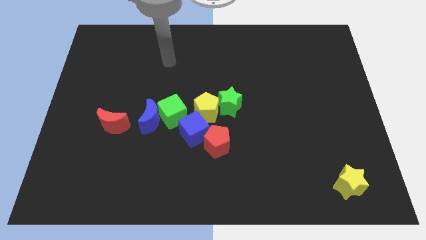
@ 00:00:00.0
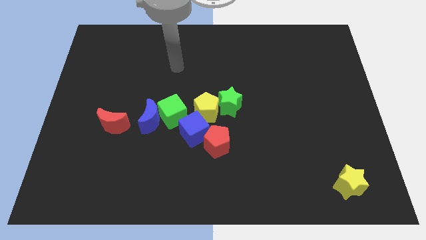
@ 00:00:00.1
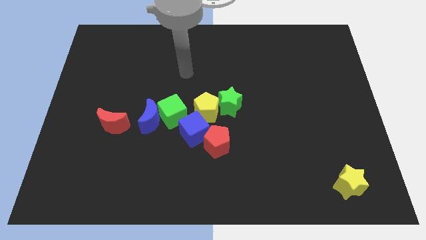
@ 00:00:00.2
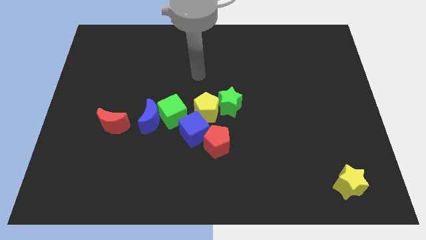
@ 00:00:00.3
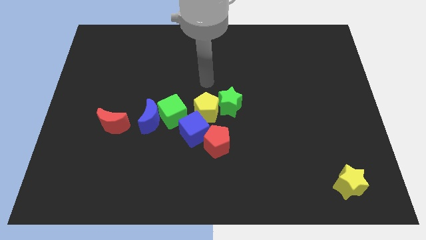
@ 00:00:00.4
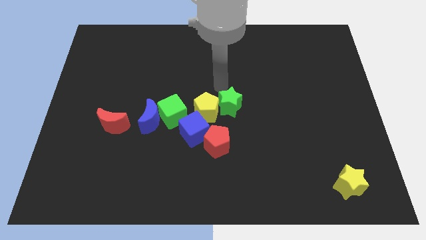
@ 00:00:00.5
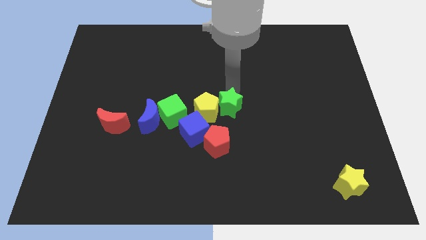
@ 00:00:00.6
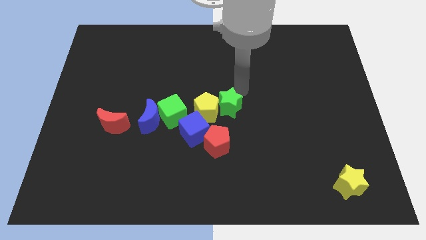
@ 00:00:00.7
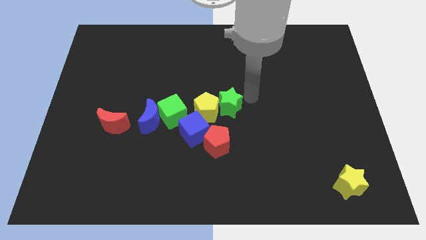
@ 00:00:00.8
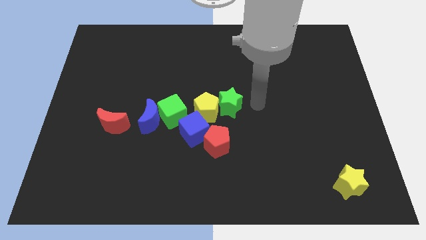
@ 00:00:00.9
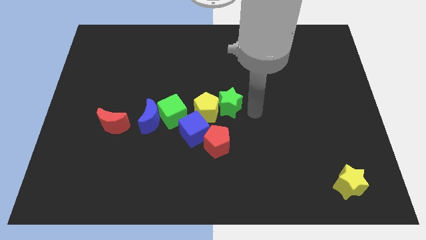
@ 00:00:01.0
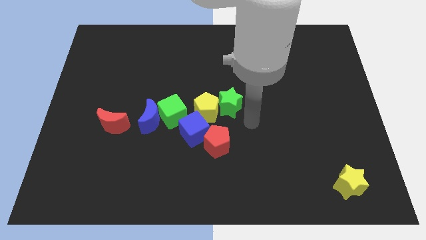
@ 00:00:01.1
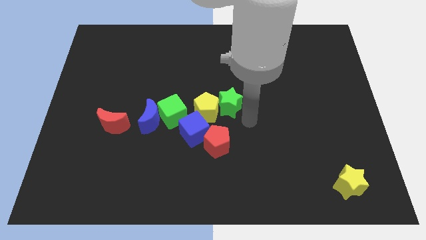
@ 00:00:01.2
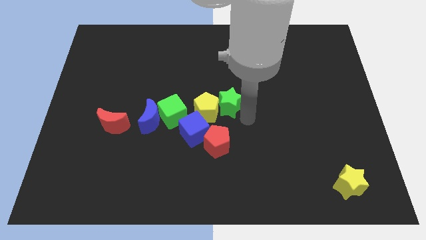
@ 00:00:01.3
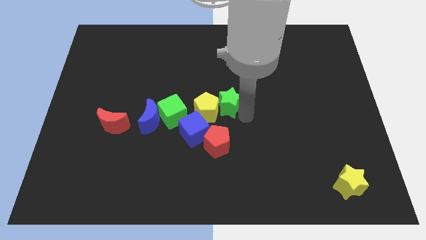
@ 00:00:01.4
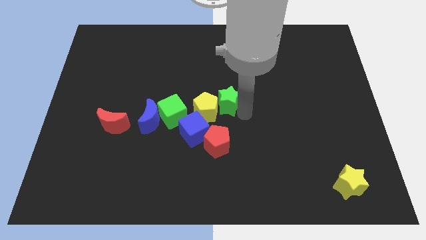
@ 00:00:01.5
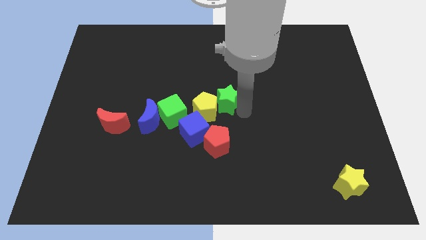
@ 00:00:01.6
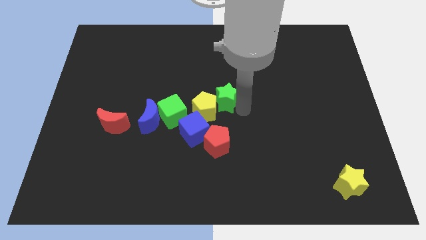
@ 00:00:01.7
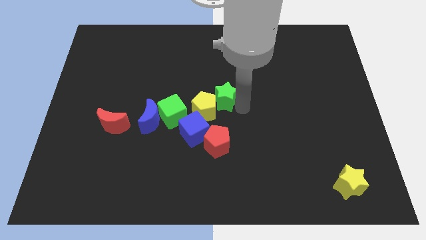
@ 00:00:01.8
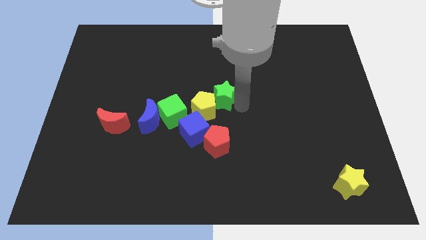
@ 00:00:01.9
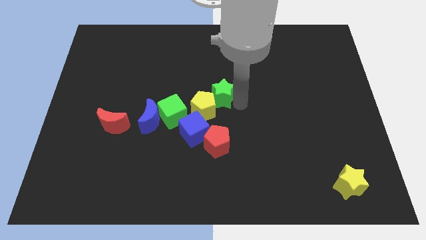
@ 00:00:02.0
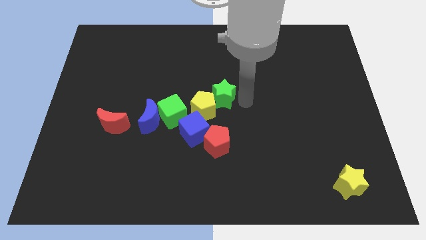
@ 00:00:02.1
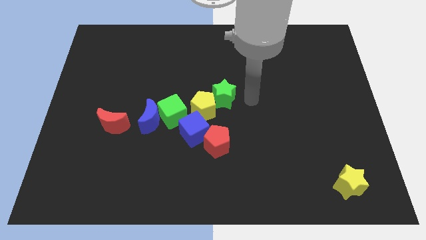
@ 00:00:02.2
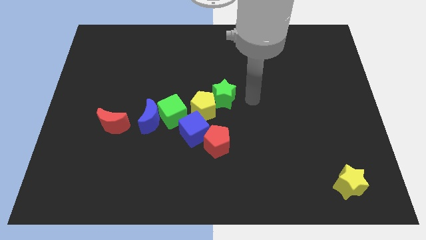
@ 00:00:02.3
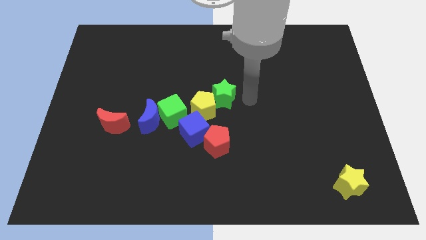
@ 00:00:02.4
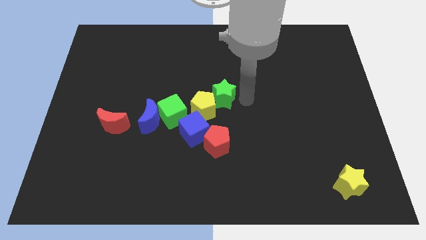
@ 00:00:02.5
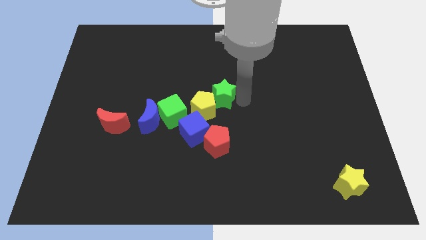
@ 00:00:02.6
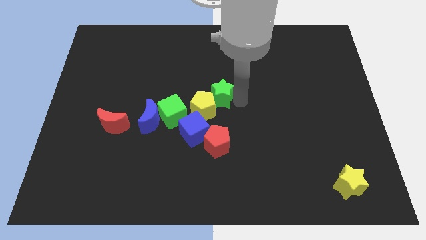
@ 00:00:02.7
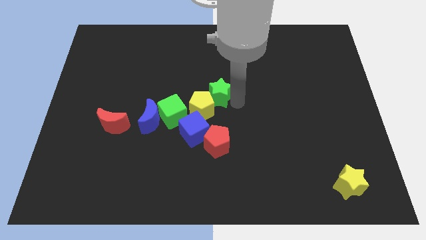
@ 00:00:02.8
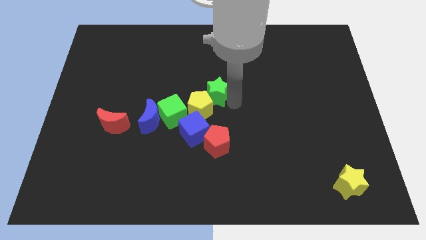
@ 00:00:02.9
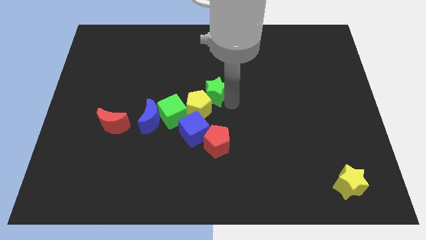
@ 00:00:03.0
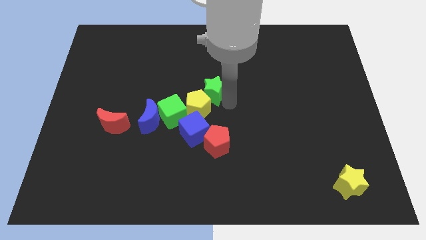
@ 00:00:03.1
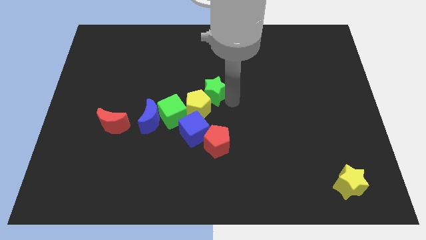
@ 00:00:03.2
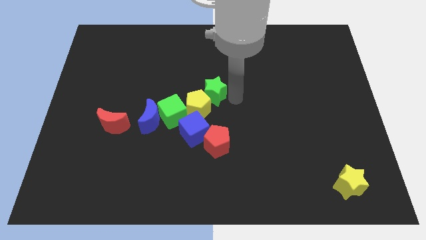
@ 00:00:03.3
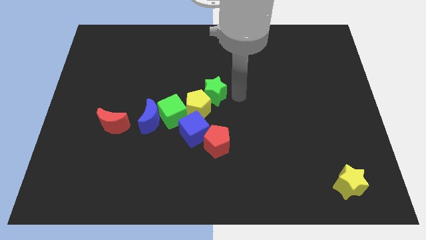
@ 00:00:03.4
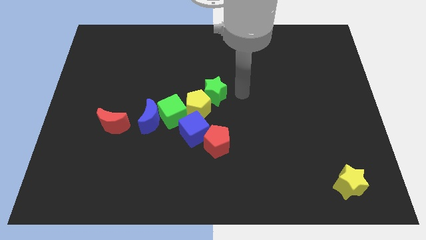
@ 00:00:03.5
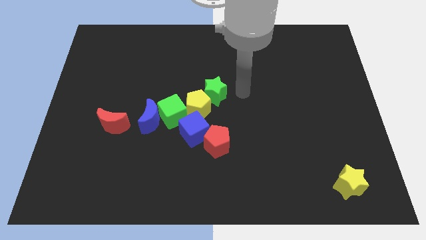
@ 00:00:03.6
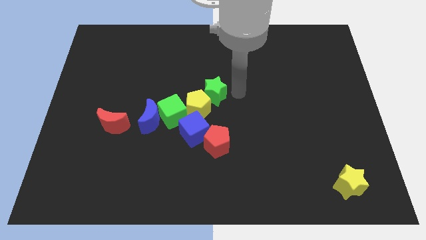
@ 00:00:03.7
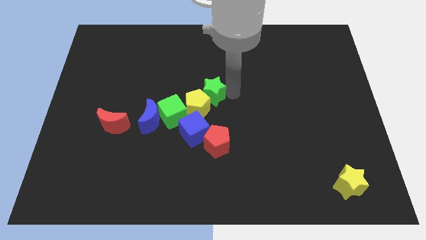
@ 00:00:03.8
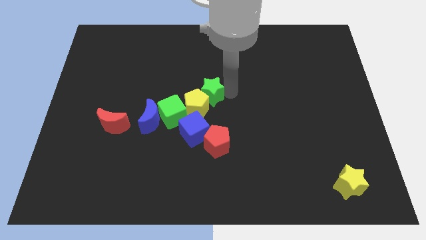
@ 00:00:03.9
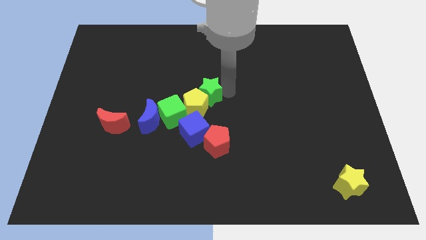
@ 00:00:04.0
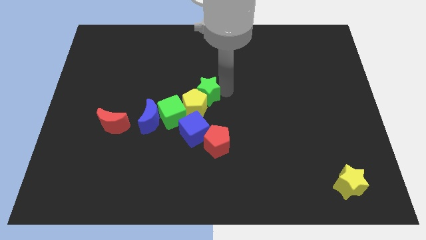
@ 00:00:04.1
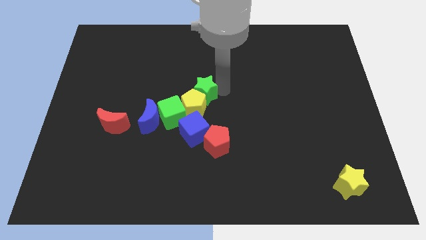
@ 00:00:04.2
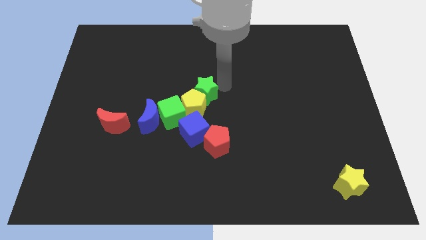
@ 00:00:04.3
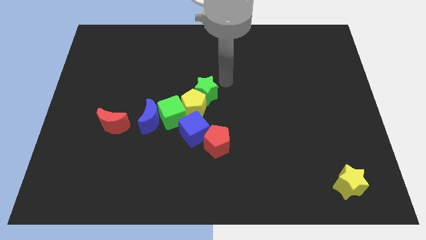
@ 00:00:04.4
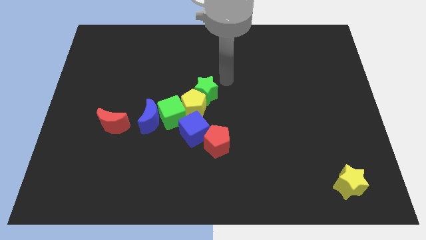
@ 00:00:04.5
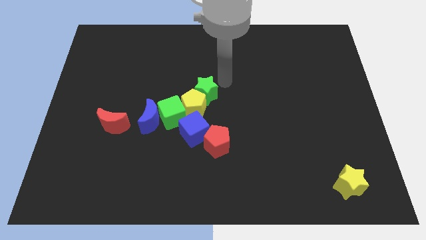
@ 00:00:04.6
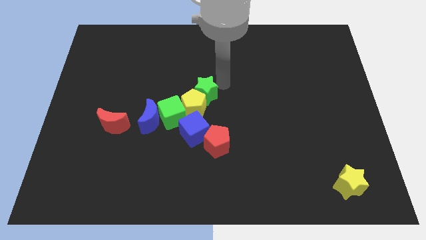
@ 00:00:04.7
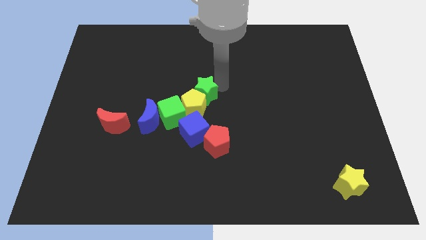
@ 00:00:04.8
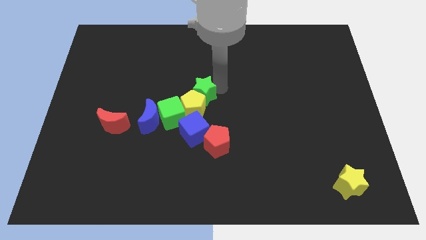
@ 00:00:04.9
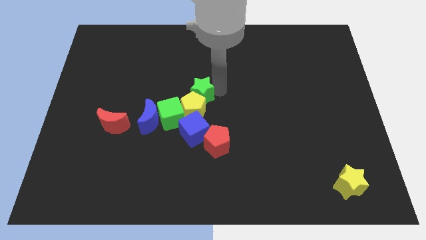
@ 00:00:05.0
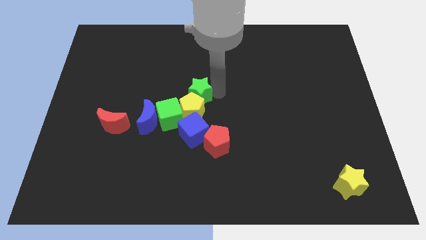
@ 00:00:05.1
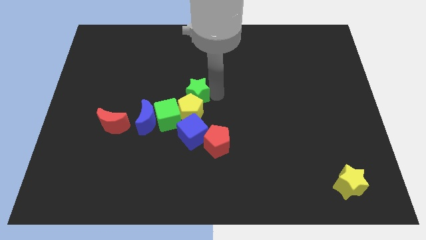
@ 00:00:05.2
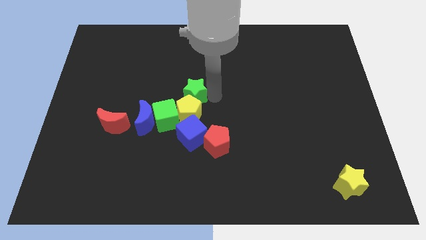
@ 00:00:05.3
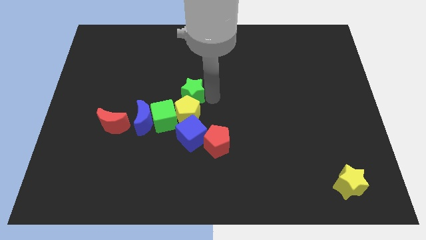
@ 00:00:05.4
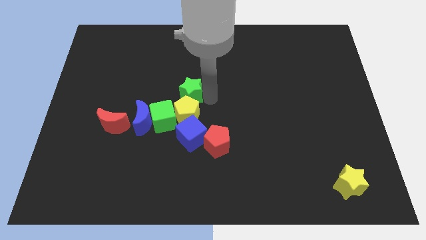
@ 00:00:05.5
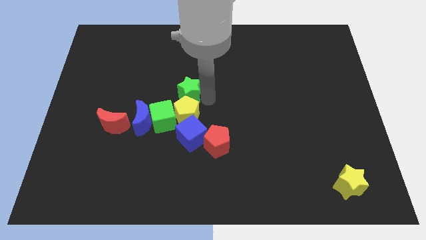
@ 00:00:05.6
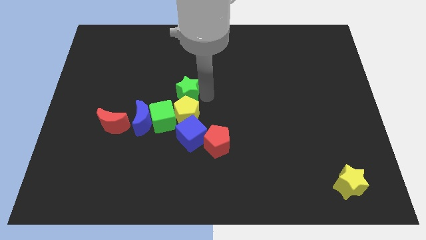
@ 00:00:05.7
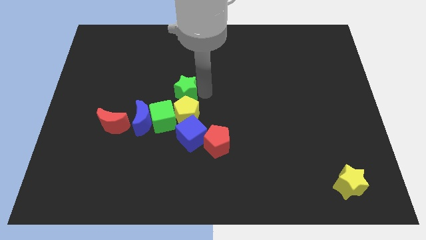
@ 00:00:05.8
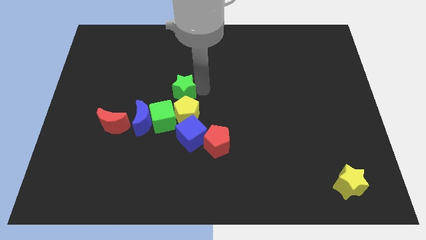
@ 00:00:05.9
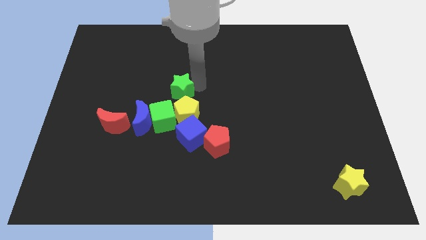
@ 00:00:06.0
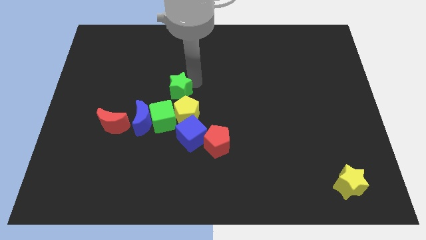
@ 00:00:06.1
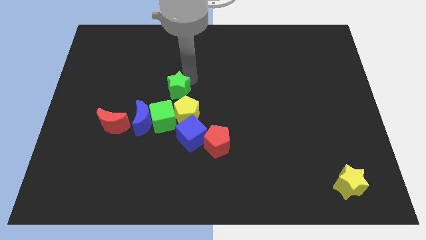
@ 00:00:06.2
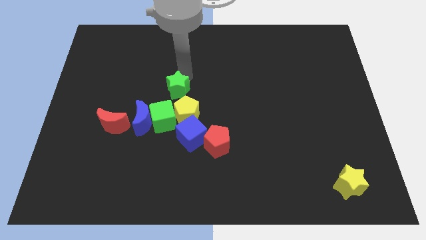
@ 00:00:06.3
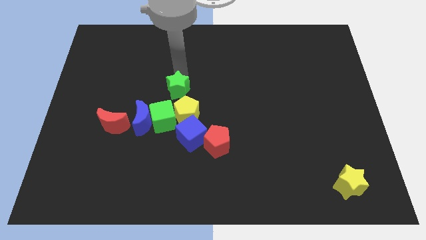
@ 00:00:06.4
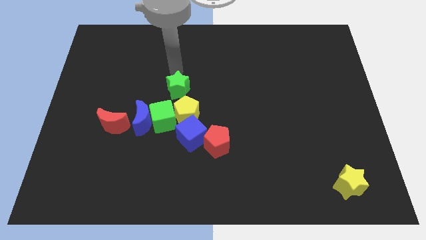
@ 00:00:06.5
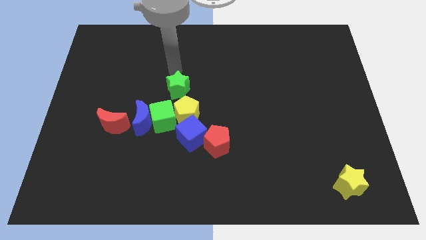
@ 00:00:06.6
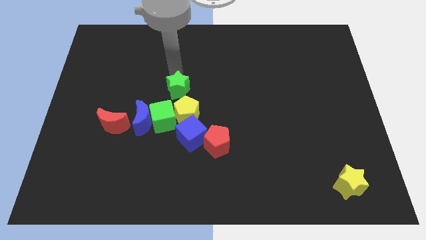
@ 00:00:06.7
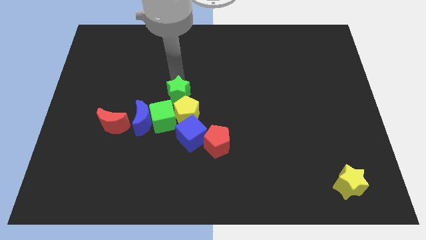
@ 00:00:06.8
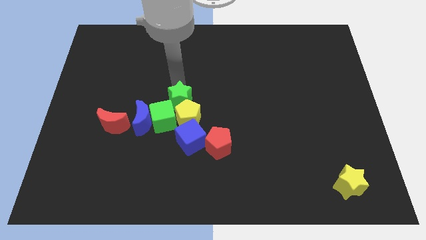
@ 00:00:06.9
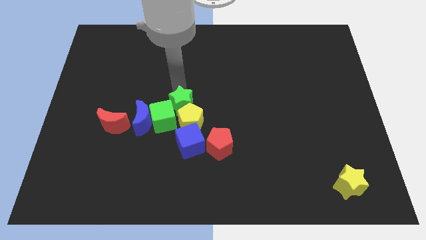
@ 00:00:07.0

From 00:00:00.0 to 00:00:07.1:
put the green star close to the green cube
